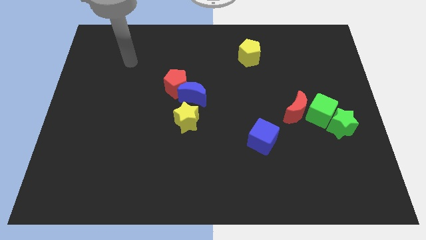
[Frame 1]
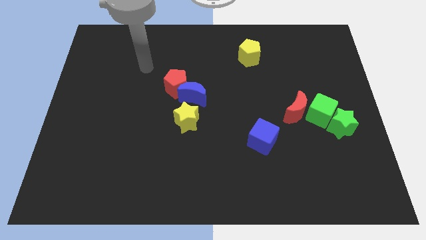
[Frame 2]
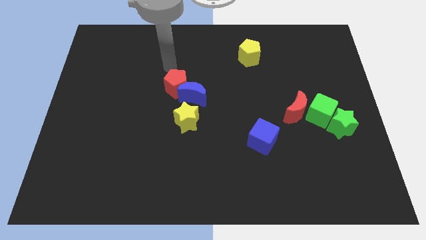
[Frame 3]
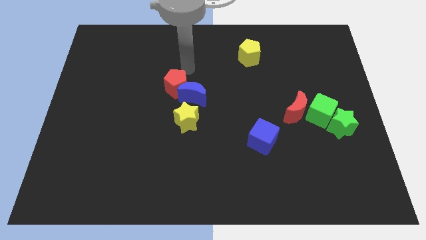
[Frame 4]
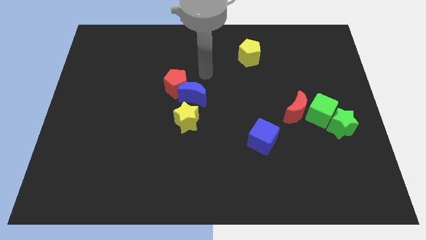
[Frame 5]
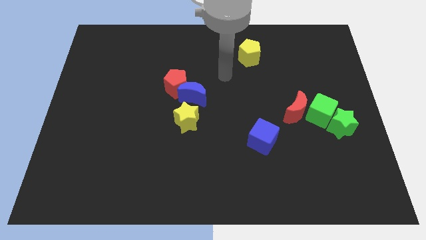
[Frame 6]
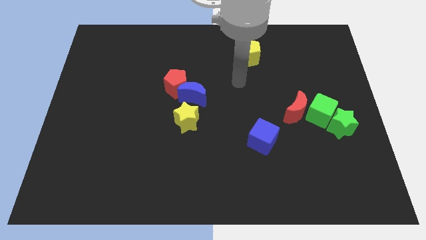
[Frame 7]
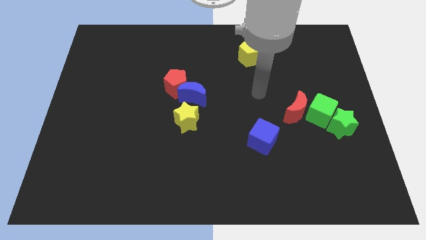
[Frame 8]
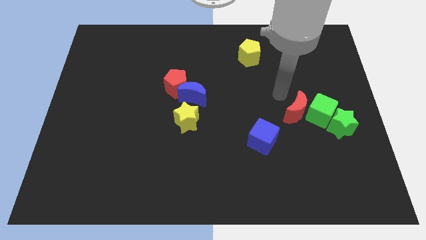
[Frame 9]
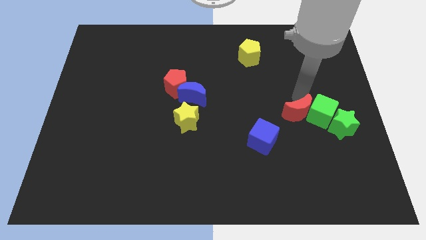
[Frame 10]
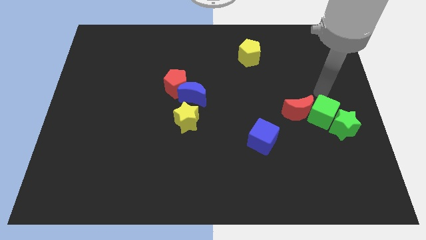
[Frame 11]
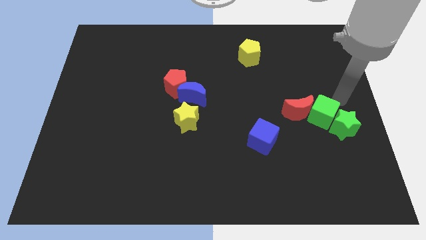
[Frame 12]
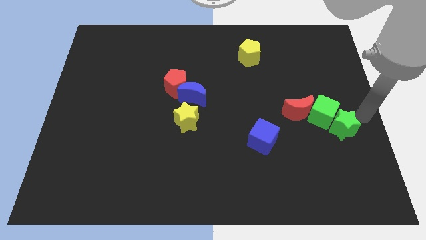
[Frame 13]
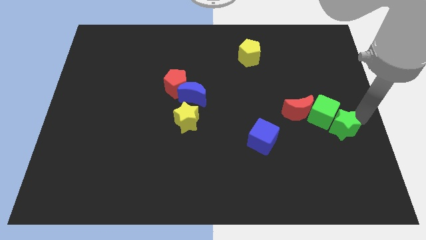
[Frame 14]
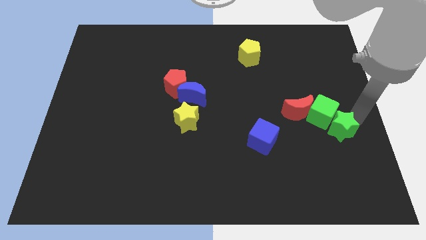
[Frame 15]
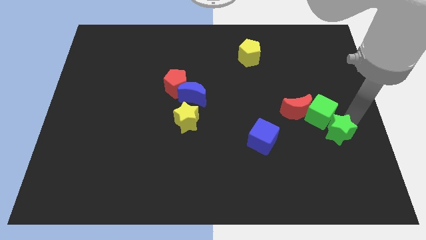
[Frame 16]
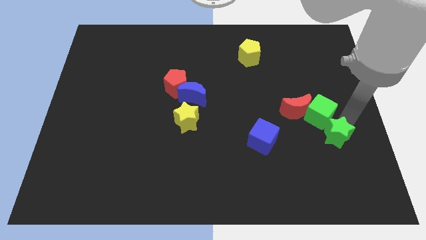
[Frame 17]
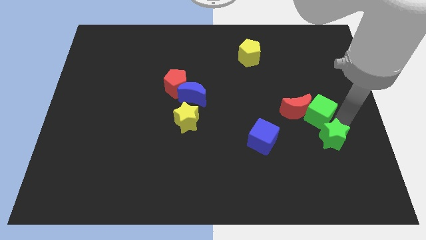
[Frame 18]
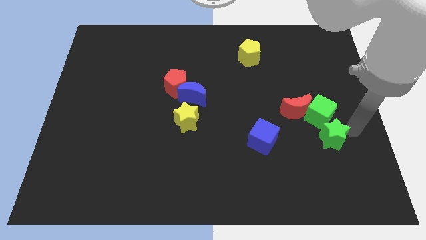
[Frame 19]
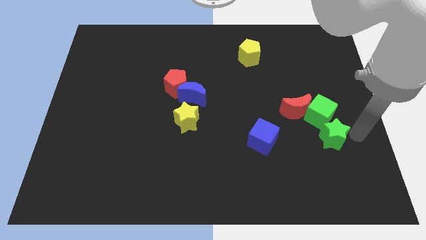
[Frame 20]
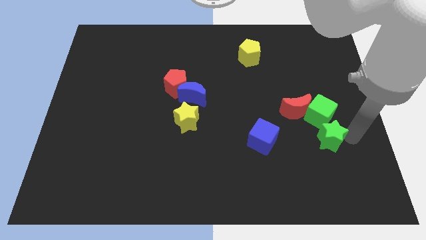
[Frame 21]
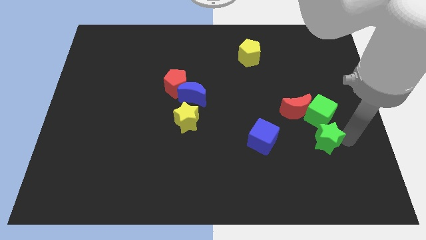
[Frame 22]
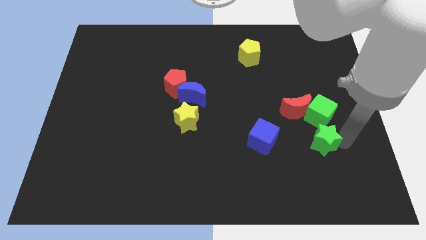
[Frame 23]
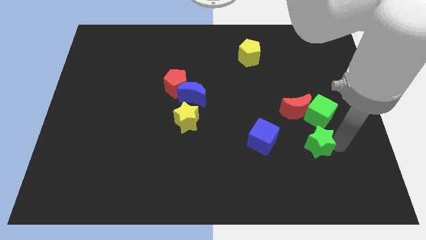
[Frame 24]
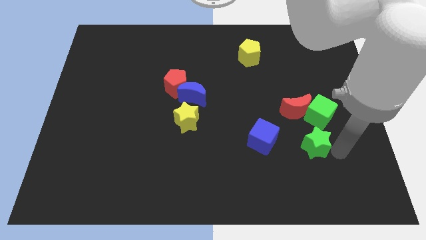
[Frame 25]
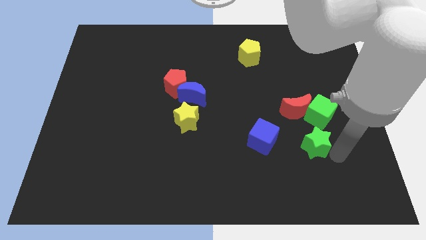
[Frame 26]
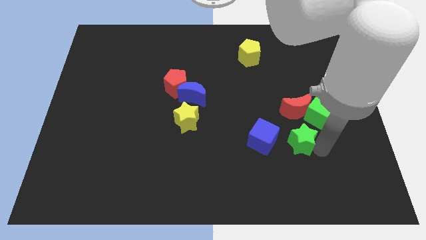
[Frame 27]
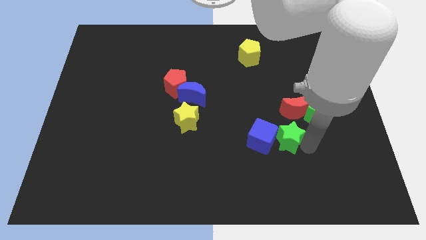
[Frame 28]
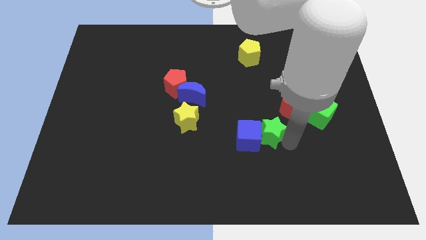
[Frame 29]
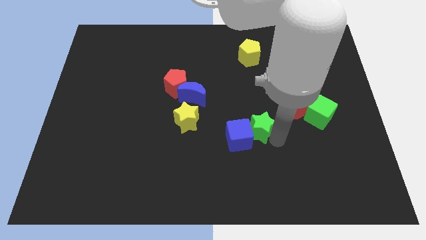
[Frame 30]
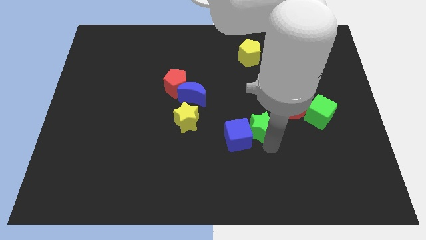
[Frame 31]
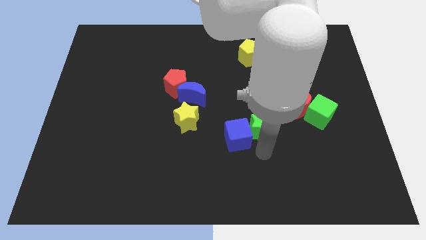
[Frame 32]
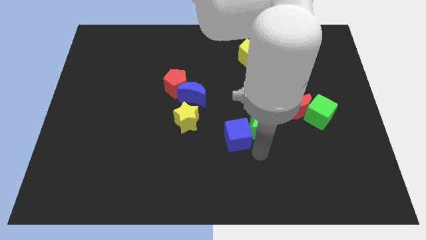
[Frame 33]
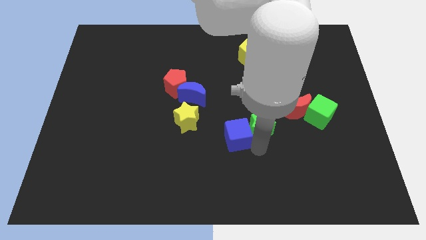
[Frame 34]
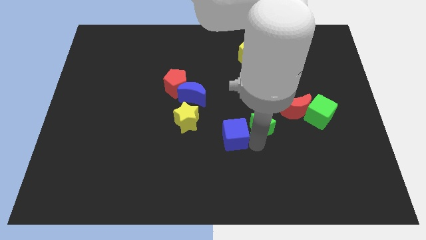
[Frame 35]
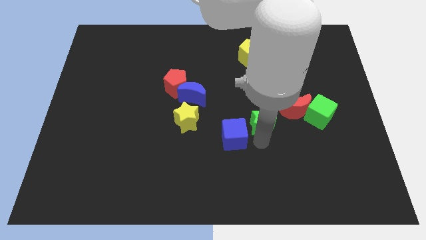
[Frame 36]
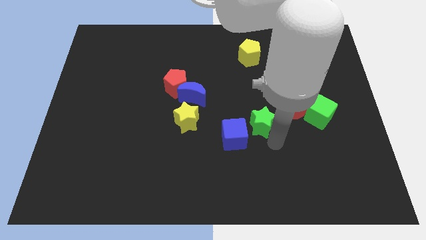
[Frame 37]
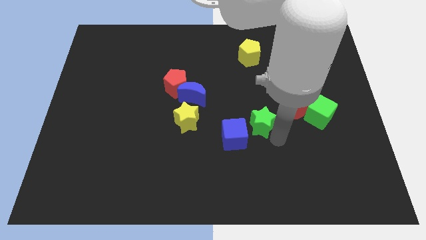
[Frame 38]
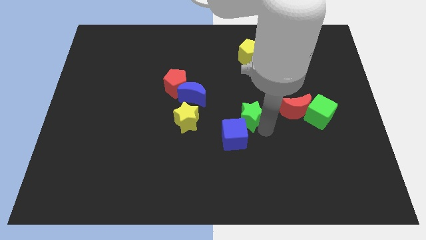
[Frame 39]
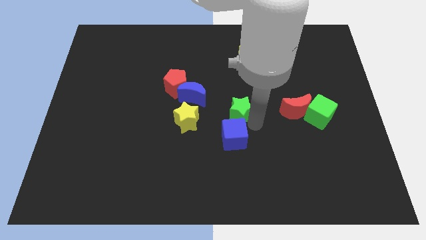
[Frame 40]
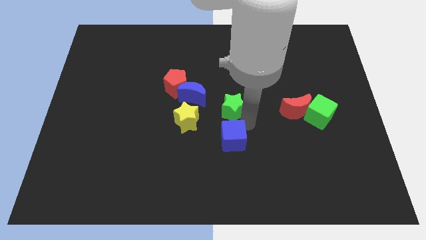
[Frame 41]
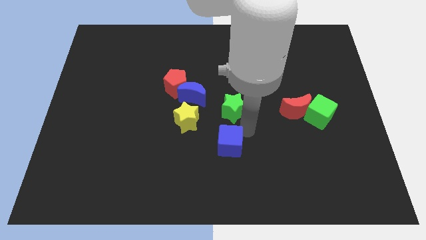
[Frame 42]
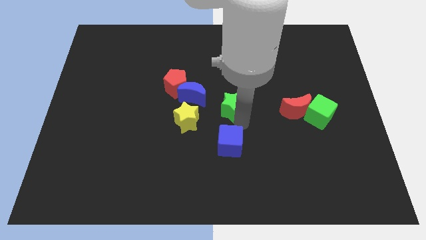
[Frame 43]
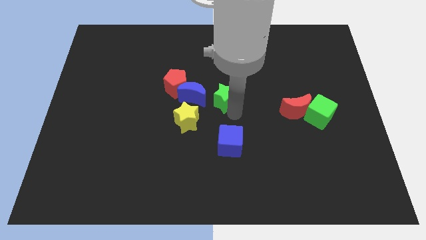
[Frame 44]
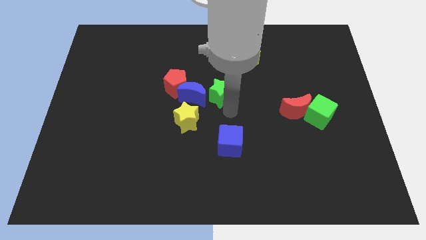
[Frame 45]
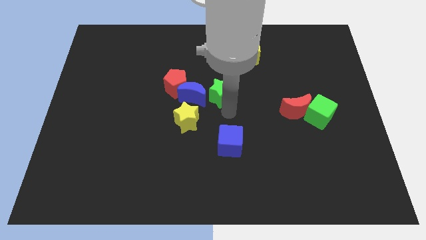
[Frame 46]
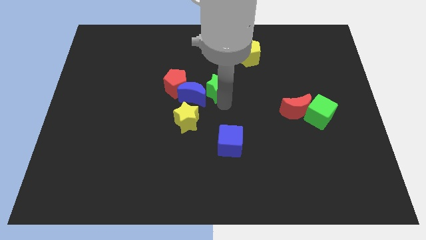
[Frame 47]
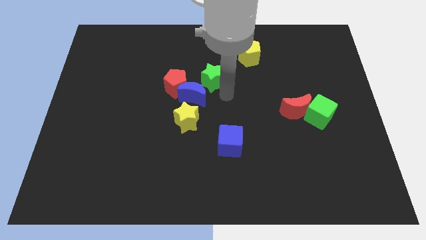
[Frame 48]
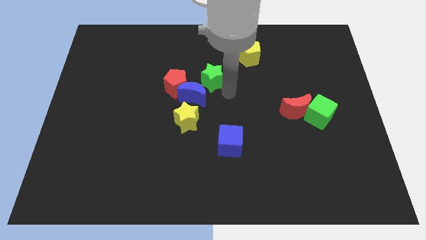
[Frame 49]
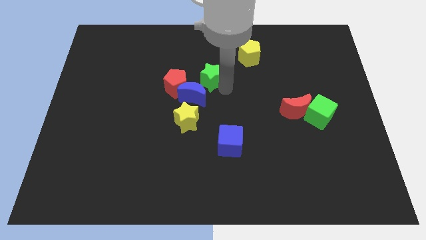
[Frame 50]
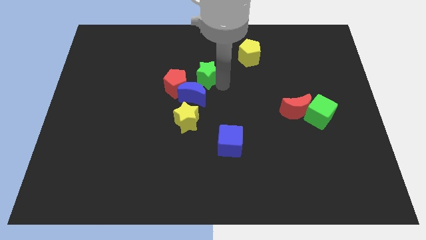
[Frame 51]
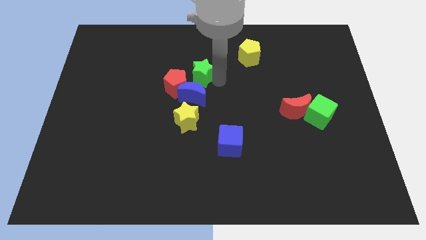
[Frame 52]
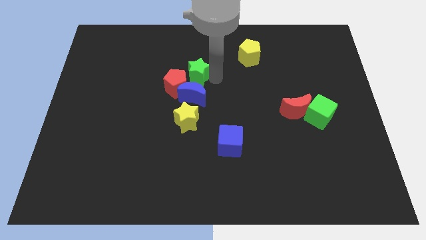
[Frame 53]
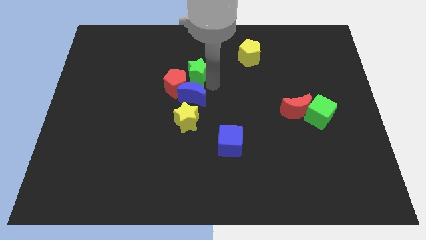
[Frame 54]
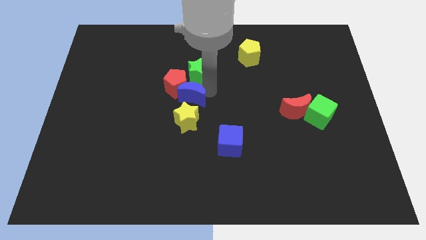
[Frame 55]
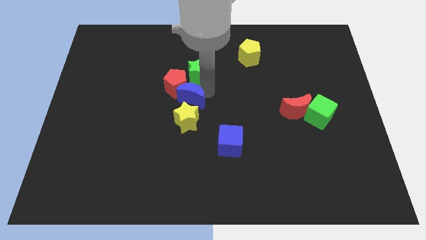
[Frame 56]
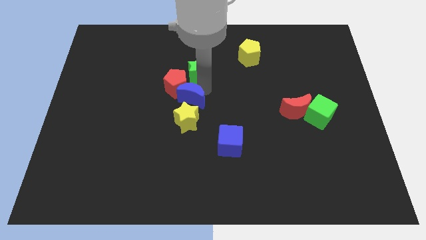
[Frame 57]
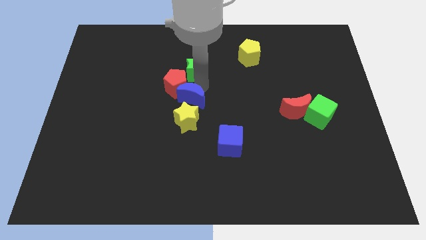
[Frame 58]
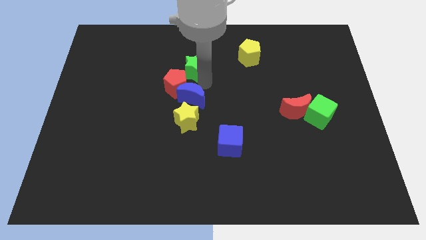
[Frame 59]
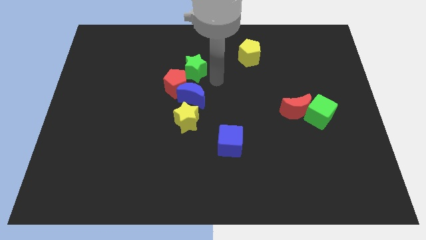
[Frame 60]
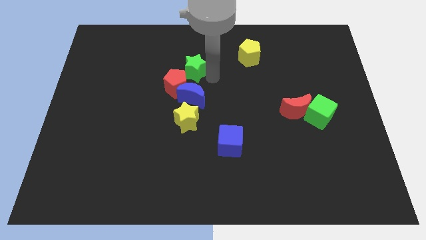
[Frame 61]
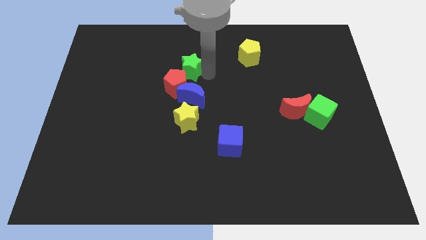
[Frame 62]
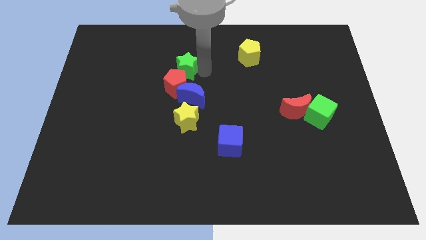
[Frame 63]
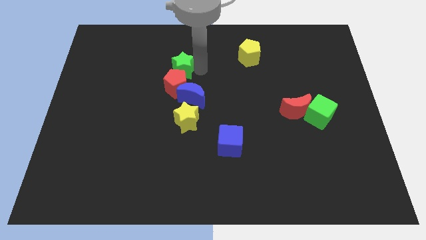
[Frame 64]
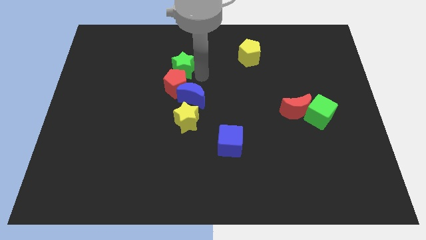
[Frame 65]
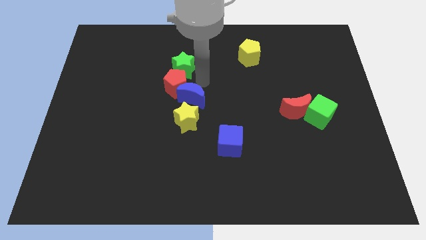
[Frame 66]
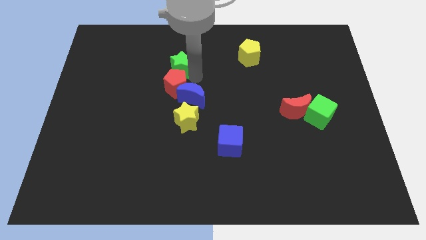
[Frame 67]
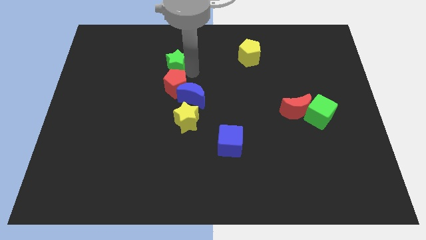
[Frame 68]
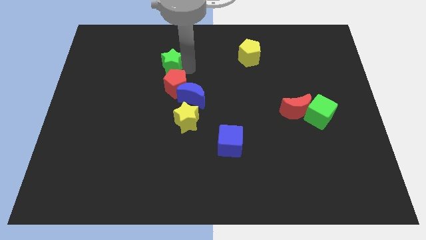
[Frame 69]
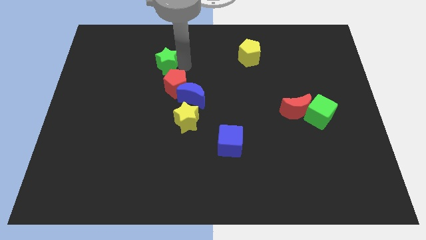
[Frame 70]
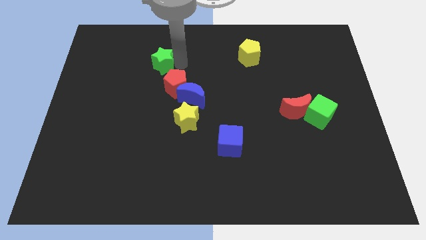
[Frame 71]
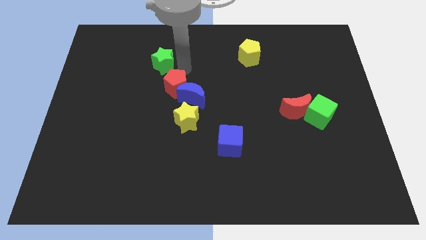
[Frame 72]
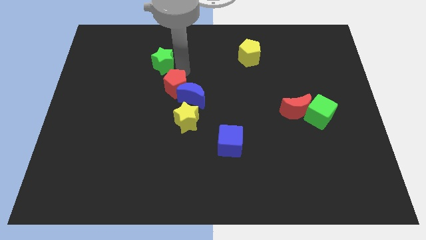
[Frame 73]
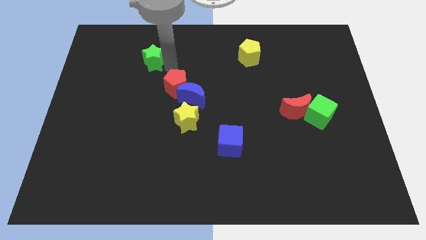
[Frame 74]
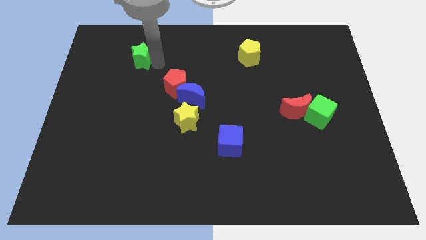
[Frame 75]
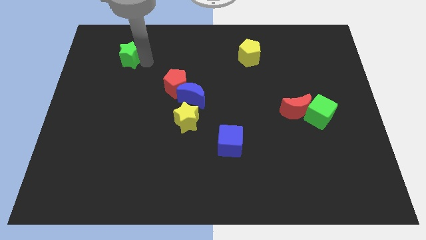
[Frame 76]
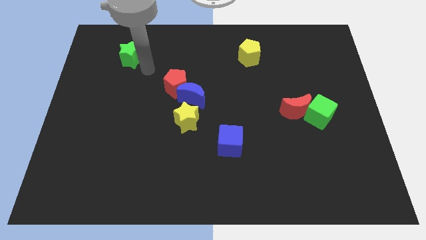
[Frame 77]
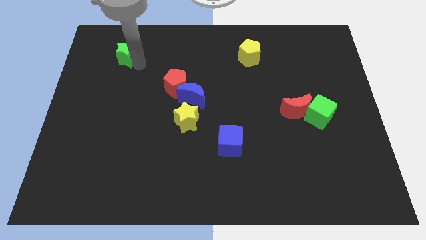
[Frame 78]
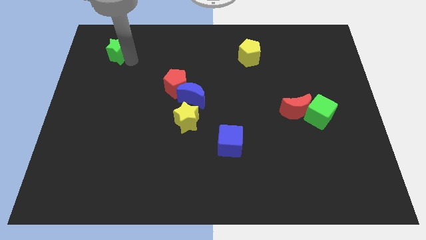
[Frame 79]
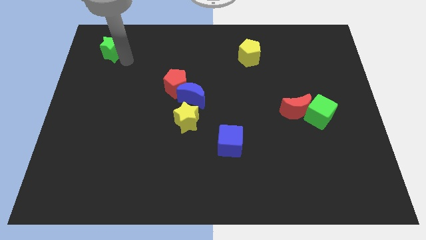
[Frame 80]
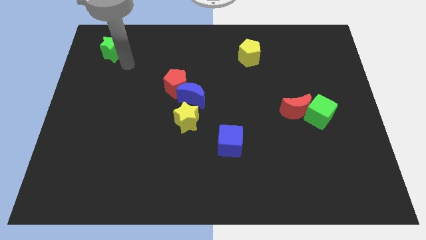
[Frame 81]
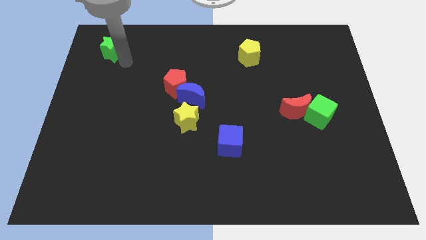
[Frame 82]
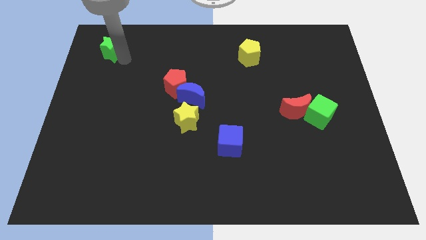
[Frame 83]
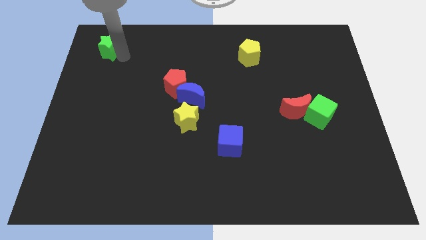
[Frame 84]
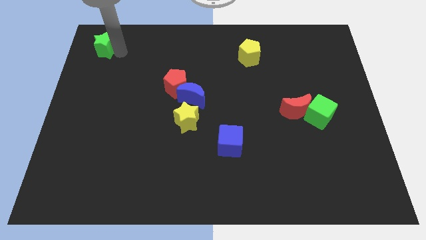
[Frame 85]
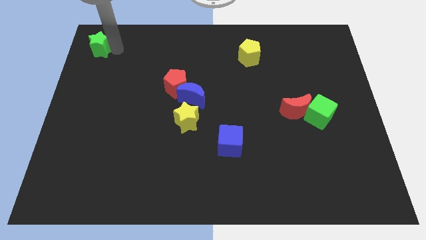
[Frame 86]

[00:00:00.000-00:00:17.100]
slide the green star to the top left of the board
